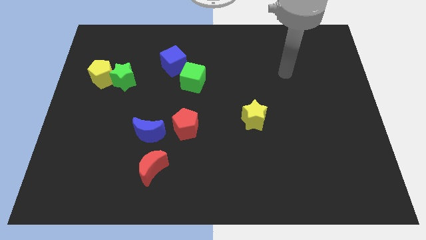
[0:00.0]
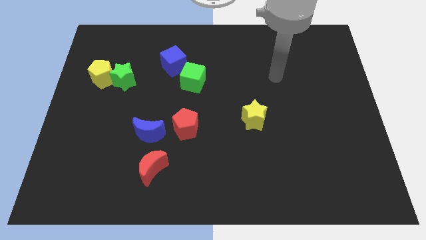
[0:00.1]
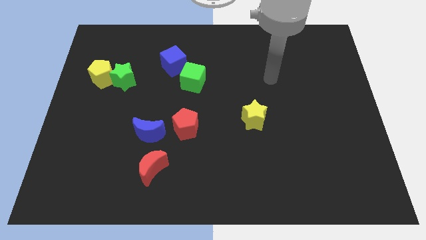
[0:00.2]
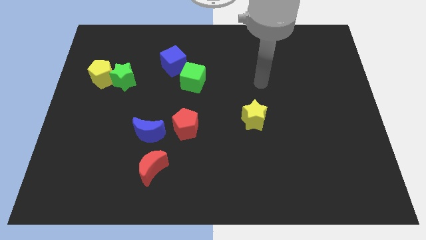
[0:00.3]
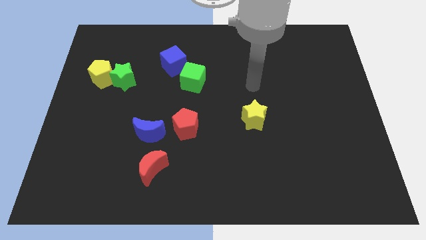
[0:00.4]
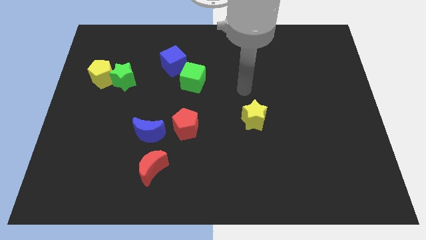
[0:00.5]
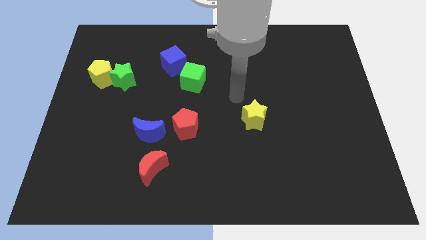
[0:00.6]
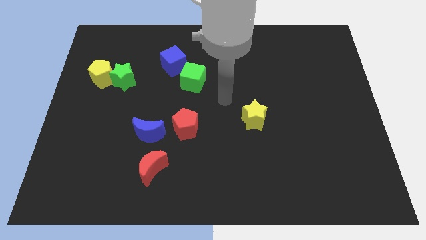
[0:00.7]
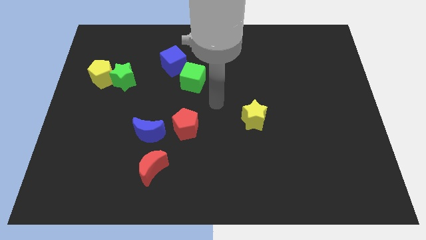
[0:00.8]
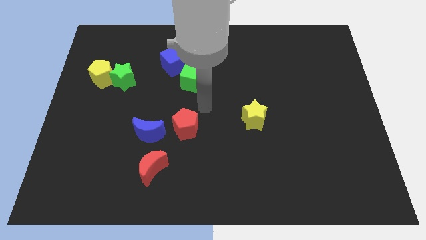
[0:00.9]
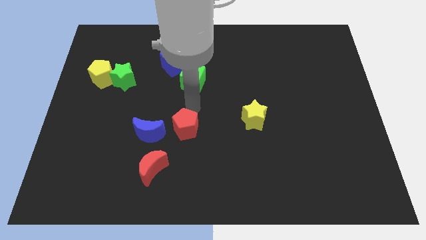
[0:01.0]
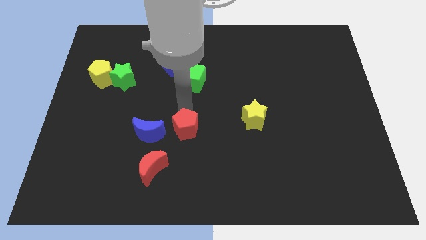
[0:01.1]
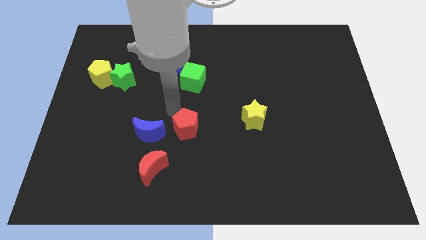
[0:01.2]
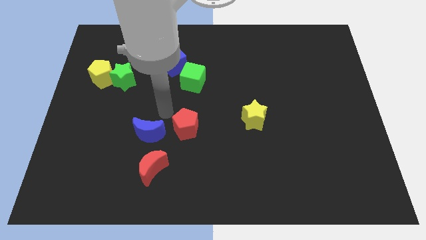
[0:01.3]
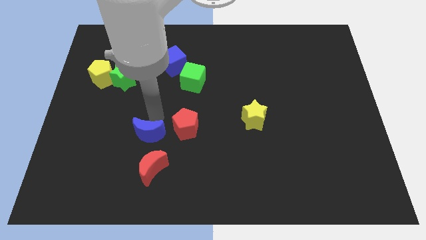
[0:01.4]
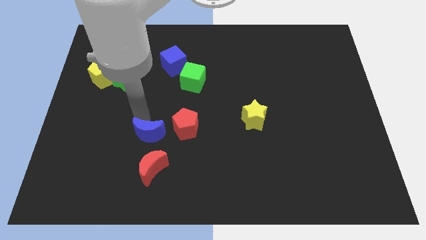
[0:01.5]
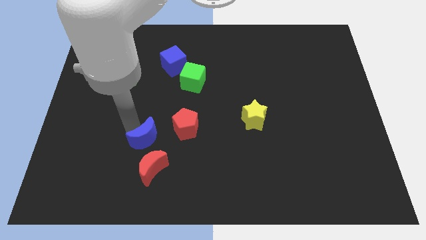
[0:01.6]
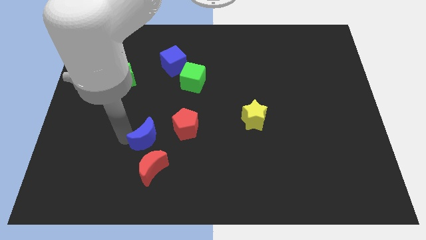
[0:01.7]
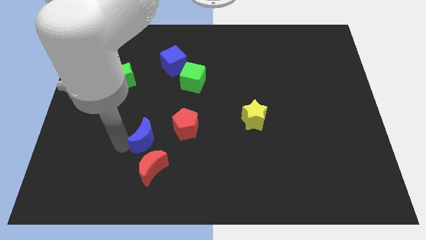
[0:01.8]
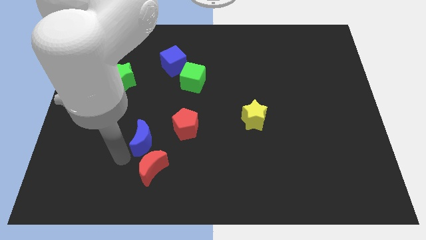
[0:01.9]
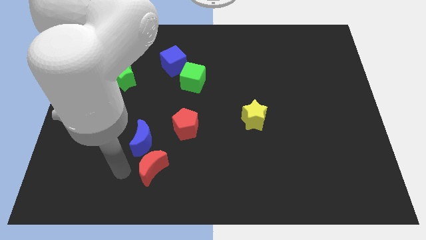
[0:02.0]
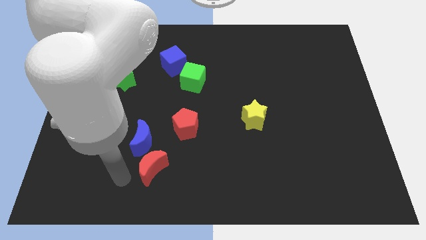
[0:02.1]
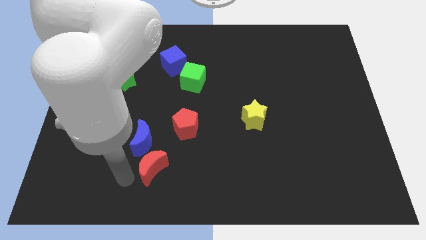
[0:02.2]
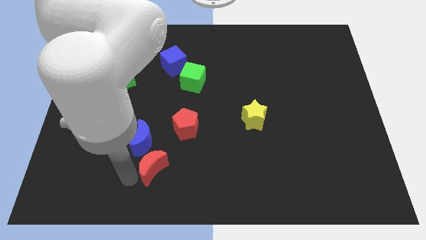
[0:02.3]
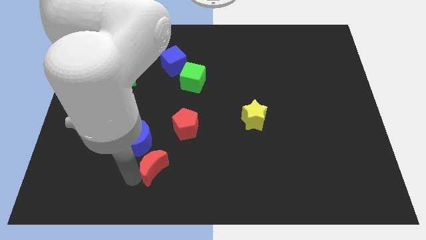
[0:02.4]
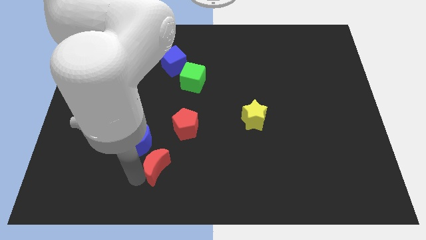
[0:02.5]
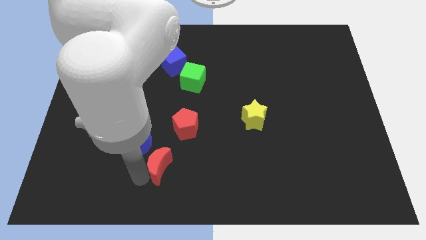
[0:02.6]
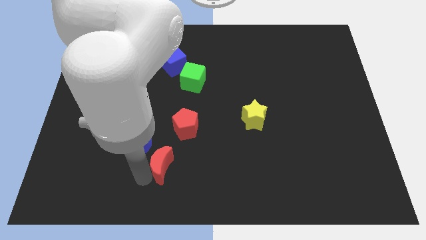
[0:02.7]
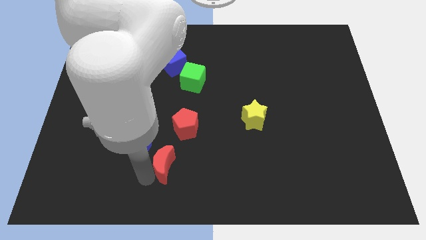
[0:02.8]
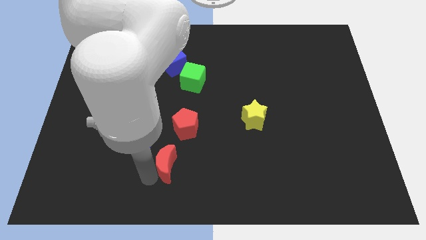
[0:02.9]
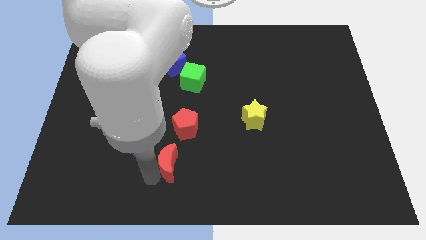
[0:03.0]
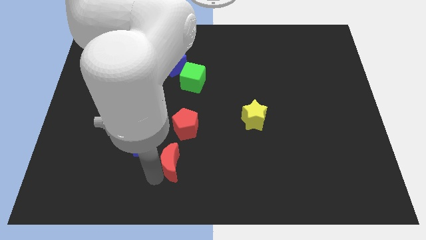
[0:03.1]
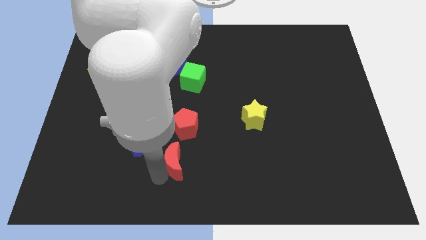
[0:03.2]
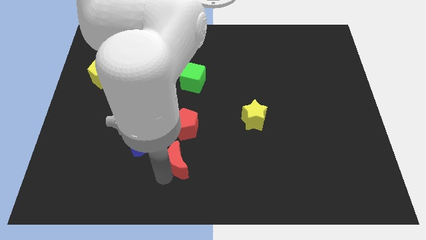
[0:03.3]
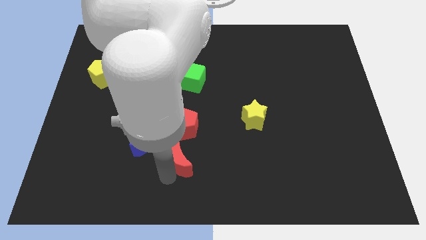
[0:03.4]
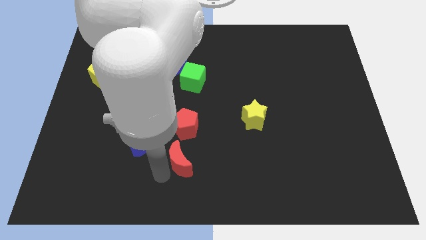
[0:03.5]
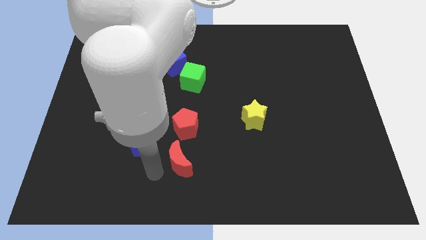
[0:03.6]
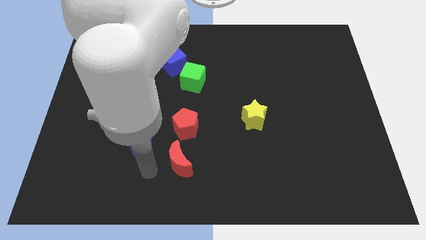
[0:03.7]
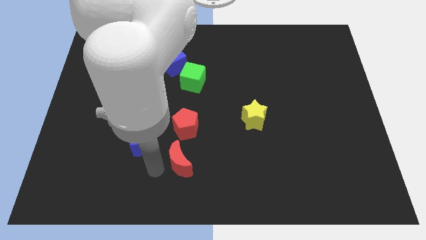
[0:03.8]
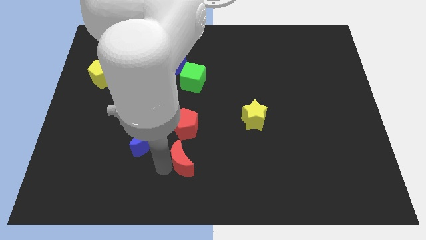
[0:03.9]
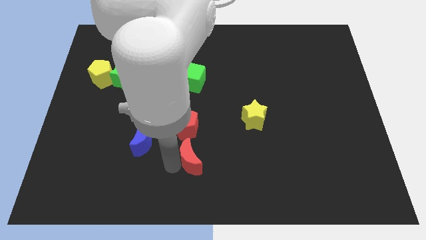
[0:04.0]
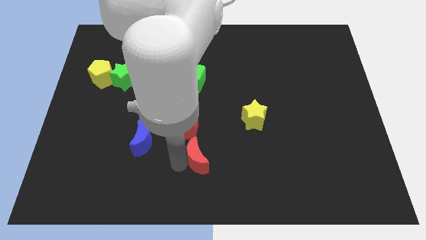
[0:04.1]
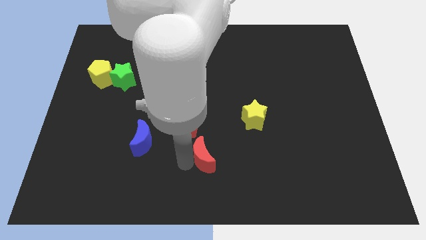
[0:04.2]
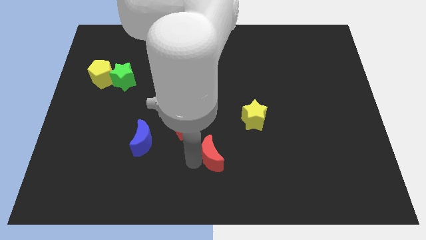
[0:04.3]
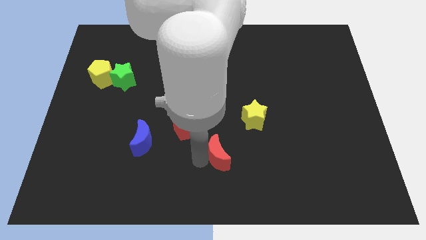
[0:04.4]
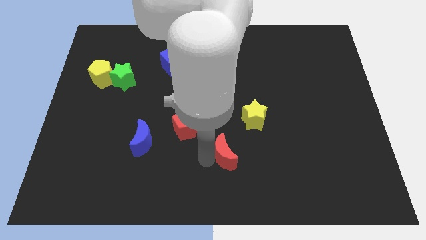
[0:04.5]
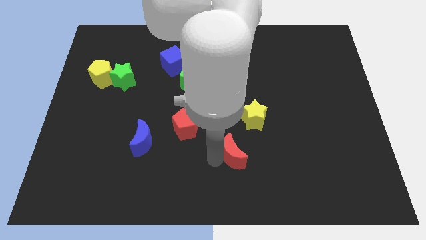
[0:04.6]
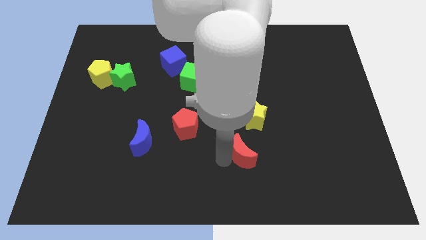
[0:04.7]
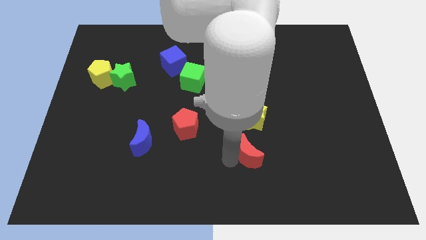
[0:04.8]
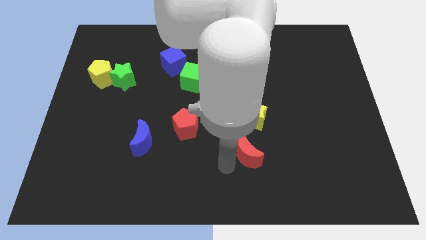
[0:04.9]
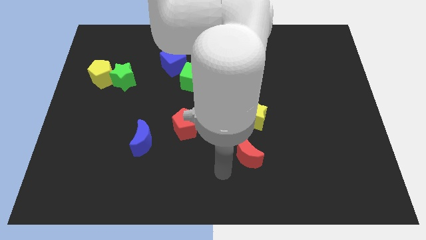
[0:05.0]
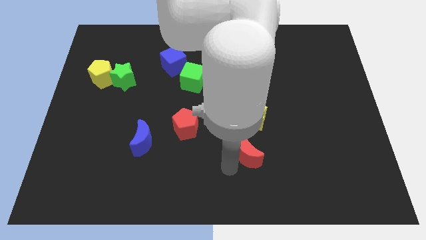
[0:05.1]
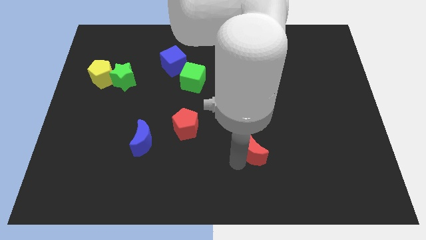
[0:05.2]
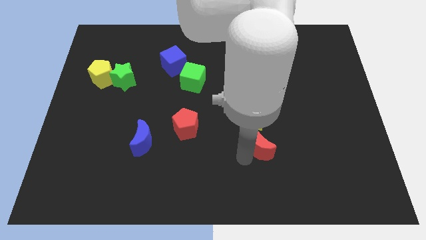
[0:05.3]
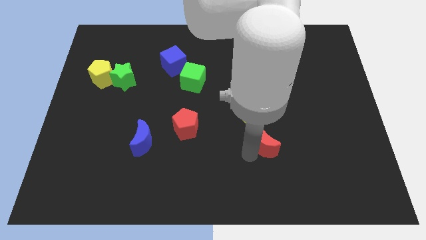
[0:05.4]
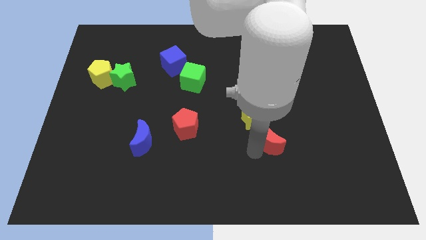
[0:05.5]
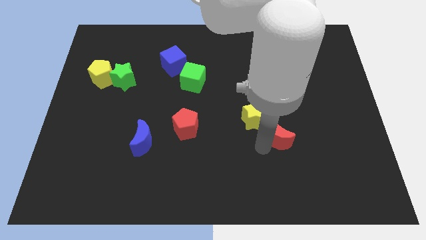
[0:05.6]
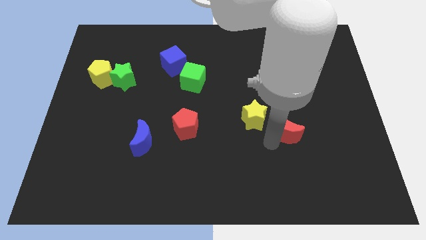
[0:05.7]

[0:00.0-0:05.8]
push the red moon to the right side of the yellow star
